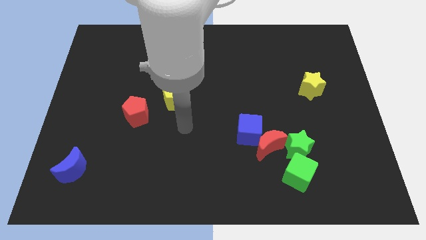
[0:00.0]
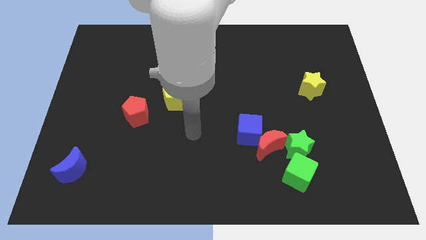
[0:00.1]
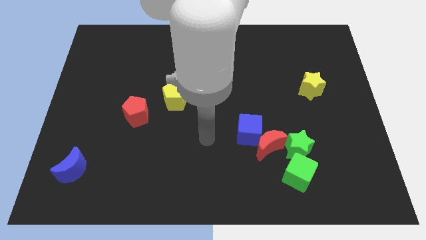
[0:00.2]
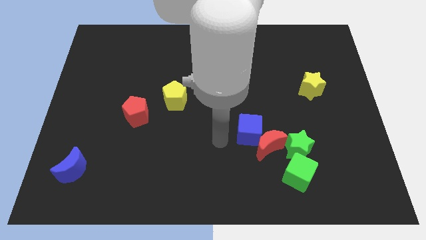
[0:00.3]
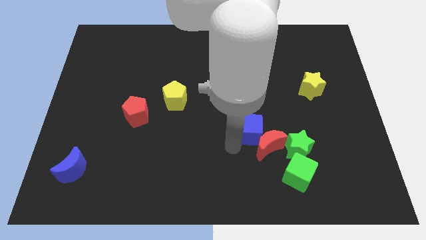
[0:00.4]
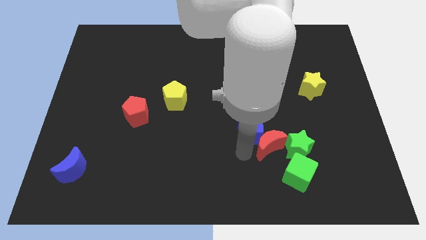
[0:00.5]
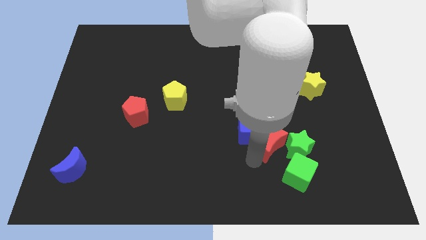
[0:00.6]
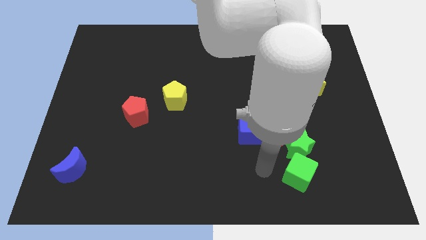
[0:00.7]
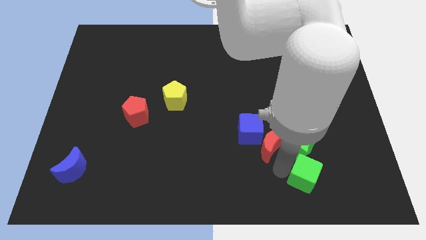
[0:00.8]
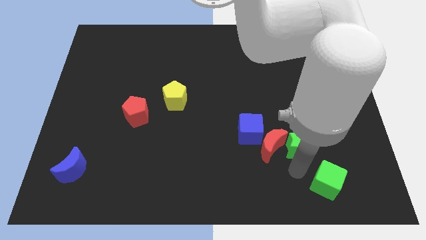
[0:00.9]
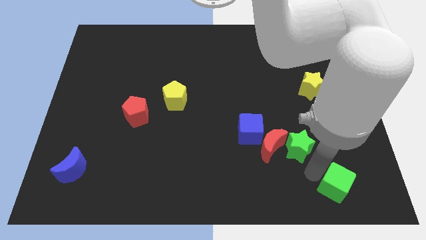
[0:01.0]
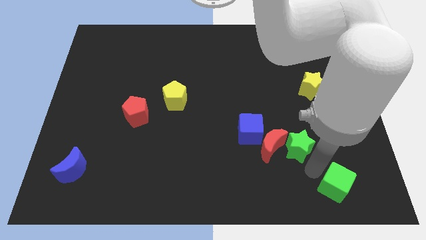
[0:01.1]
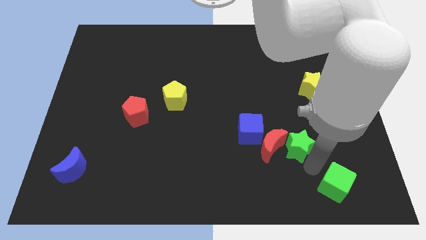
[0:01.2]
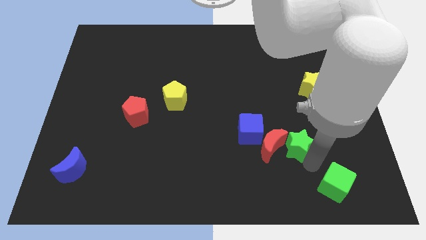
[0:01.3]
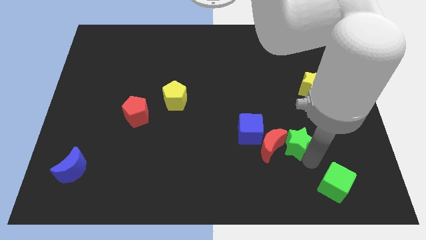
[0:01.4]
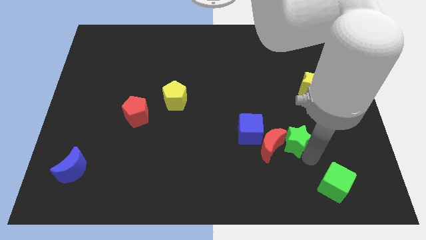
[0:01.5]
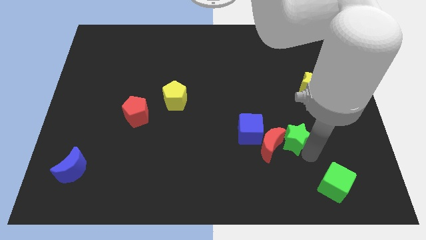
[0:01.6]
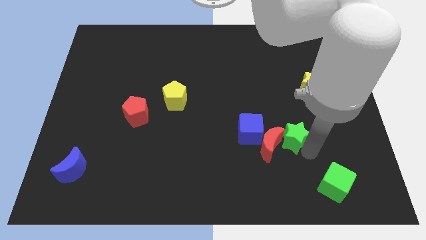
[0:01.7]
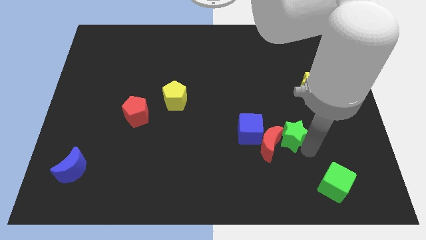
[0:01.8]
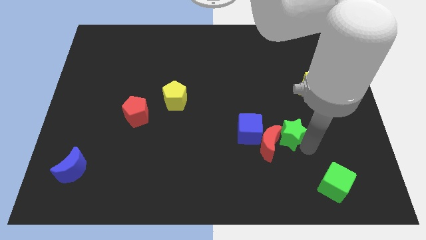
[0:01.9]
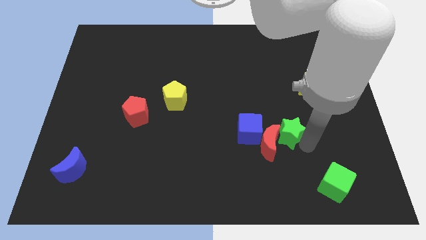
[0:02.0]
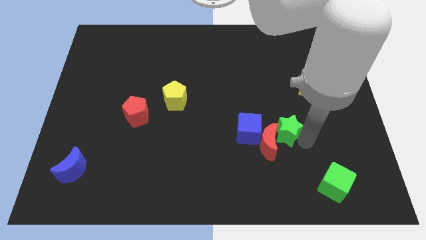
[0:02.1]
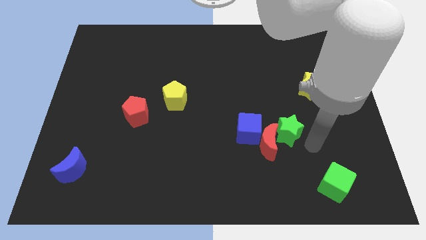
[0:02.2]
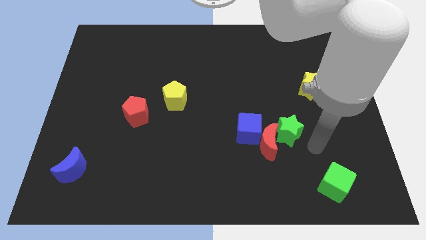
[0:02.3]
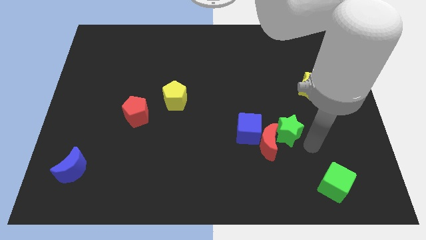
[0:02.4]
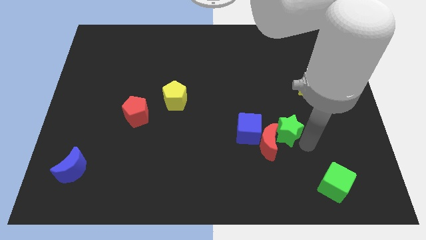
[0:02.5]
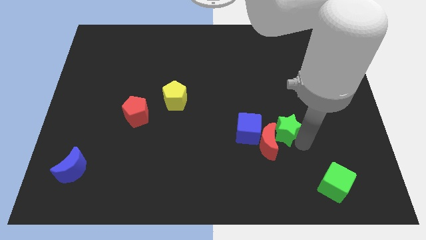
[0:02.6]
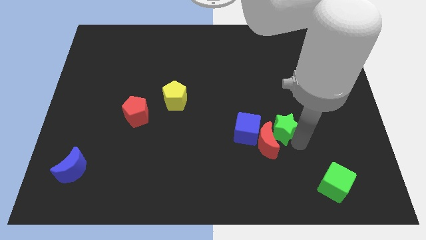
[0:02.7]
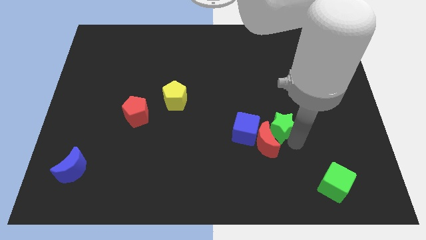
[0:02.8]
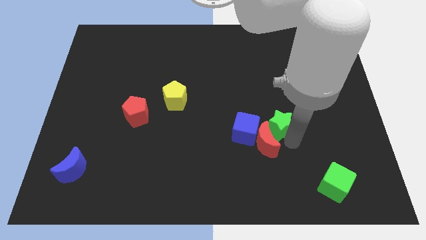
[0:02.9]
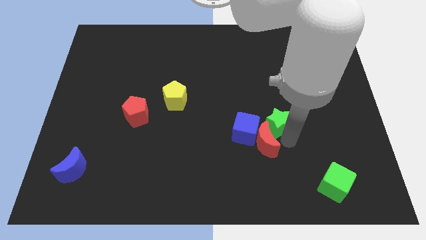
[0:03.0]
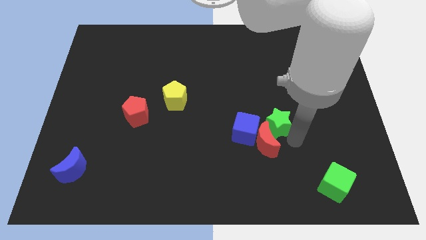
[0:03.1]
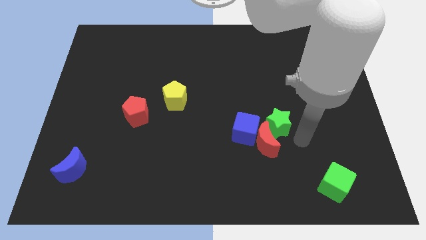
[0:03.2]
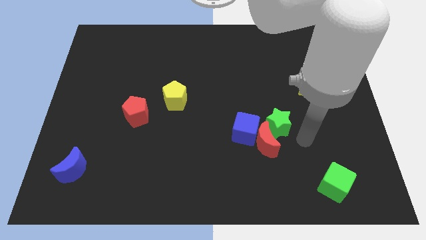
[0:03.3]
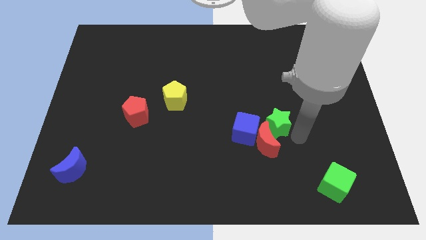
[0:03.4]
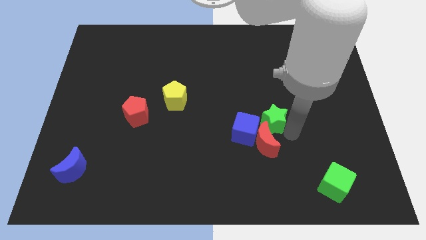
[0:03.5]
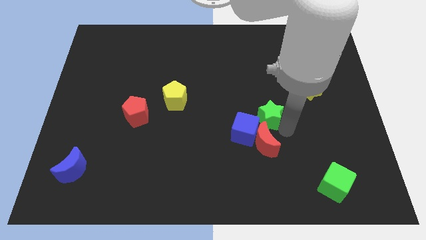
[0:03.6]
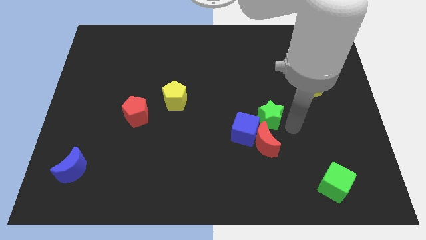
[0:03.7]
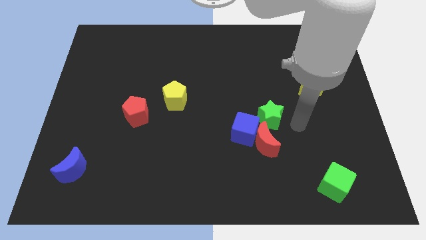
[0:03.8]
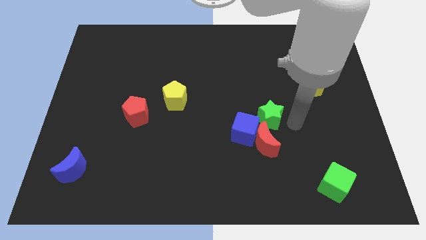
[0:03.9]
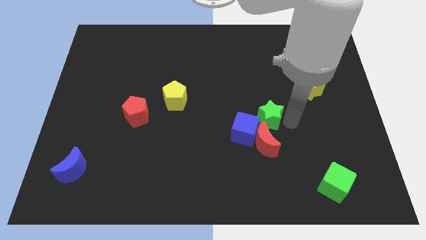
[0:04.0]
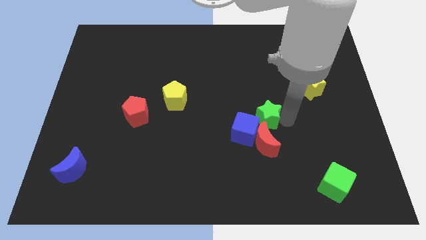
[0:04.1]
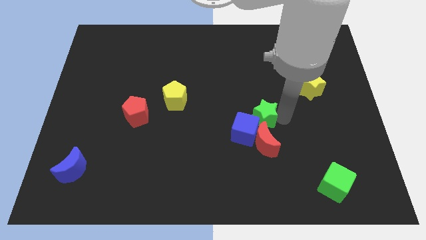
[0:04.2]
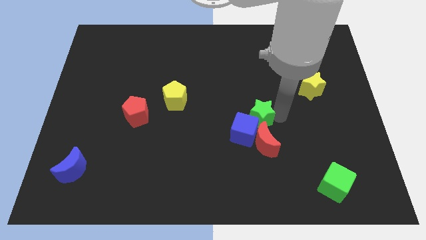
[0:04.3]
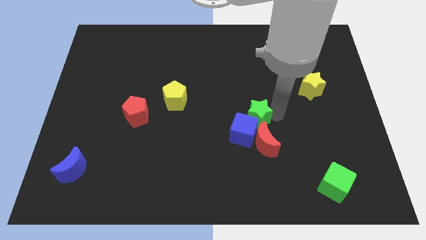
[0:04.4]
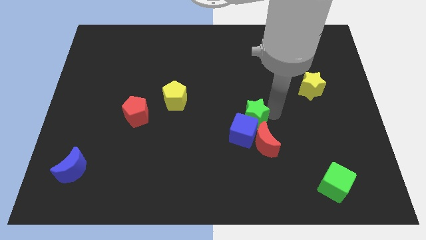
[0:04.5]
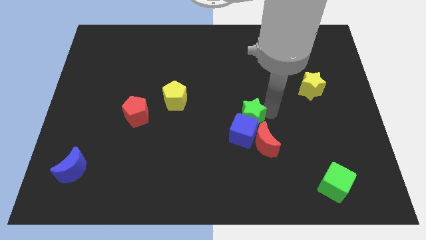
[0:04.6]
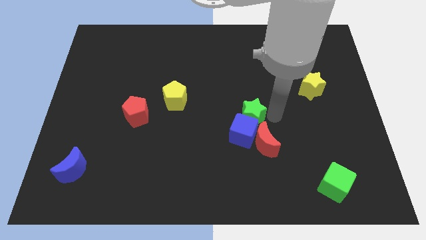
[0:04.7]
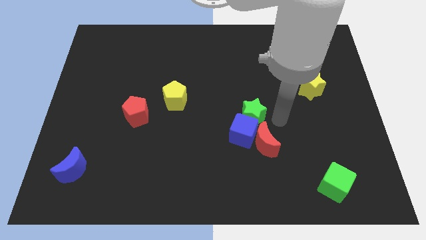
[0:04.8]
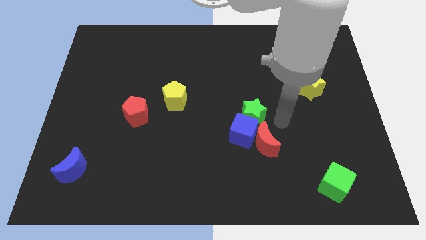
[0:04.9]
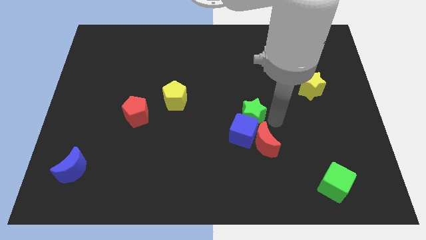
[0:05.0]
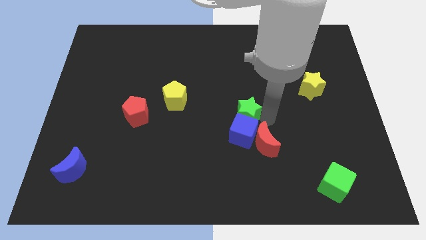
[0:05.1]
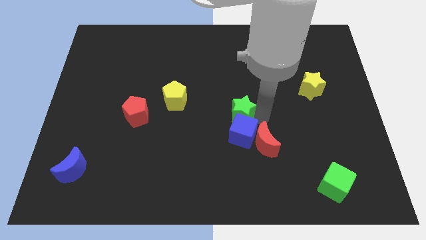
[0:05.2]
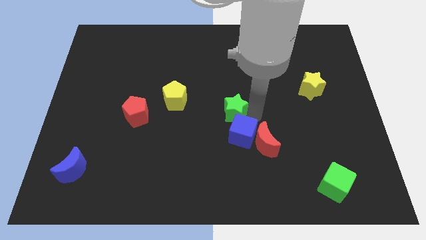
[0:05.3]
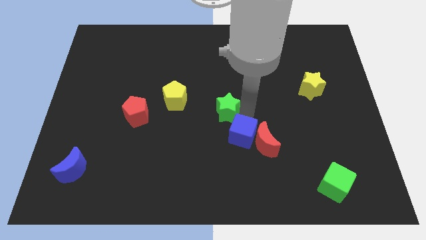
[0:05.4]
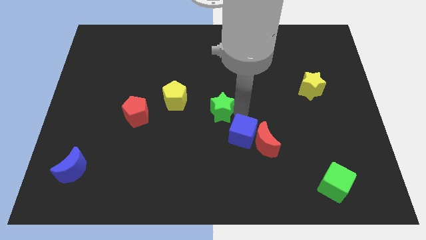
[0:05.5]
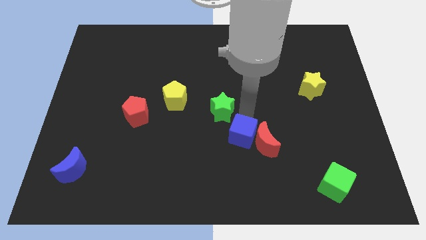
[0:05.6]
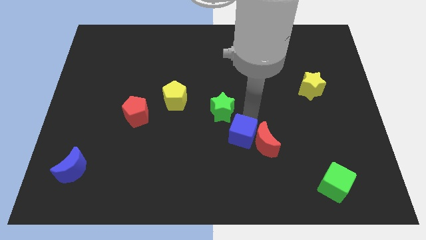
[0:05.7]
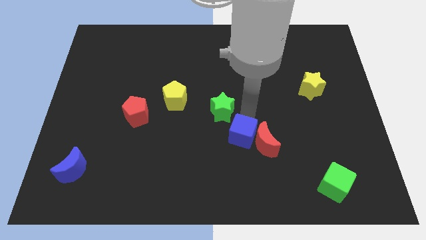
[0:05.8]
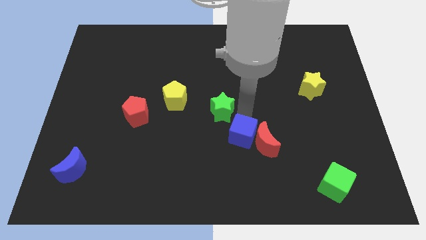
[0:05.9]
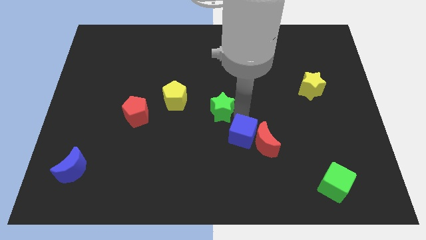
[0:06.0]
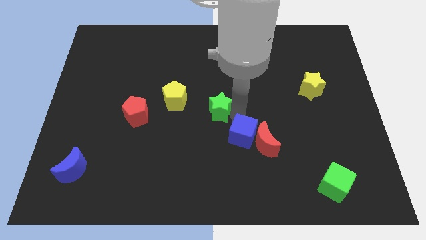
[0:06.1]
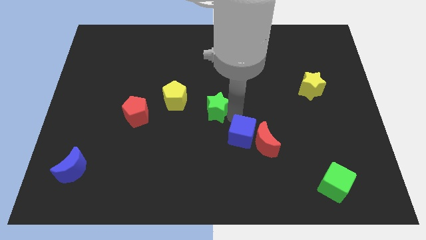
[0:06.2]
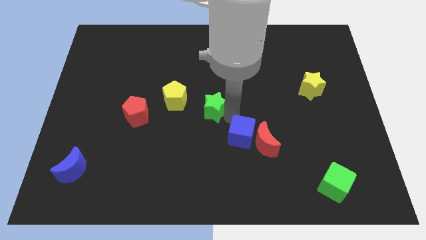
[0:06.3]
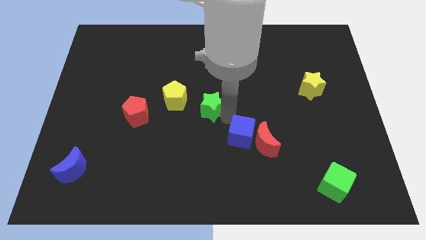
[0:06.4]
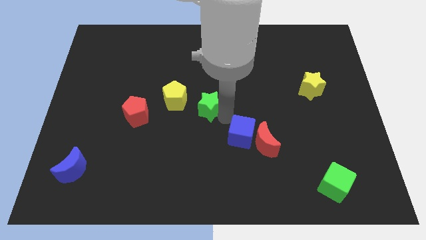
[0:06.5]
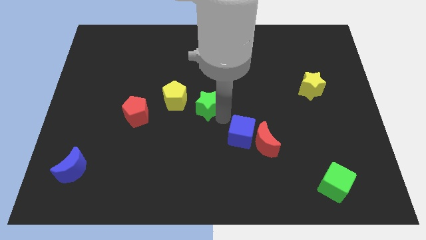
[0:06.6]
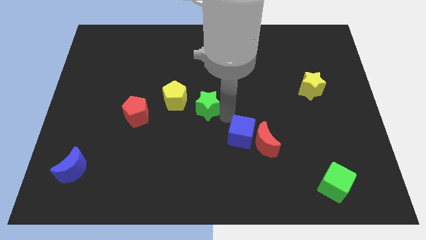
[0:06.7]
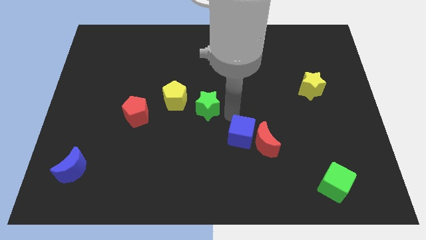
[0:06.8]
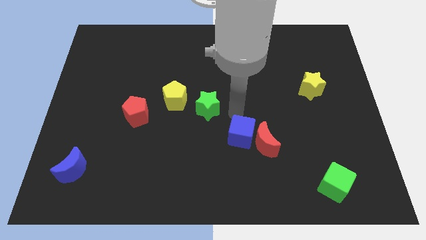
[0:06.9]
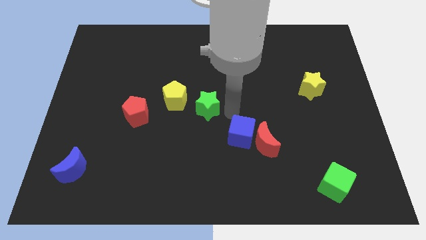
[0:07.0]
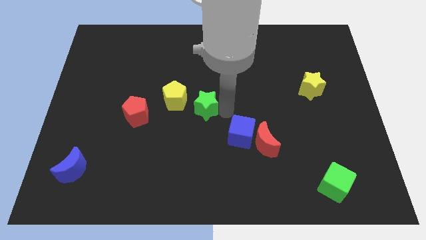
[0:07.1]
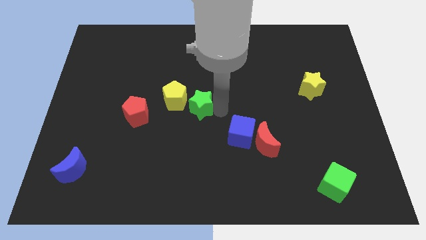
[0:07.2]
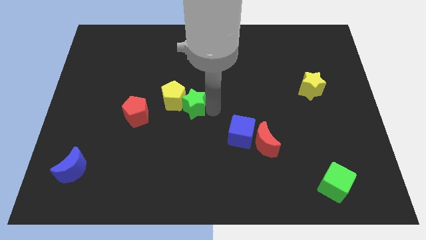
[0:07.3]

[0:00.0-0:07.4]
slide the green star towards the yellow pentagon
